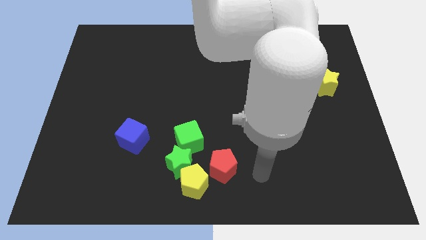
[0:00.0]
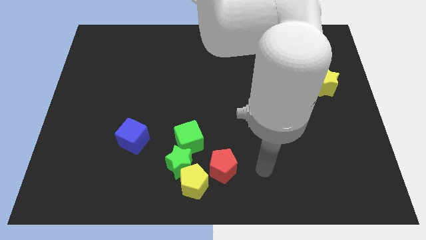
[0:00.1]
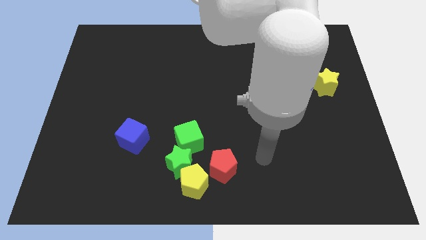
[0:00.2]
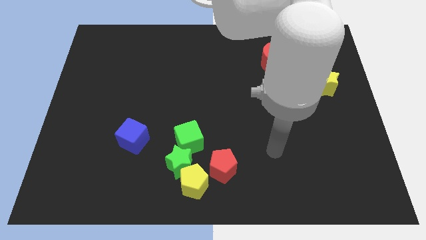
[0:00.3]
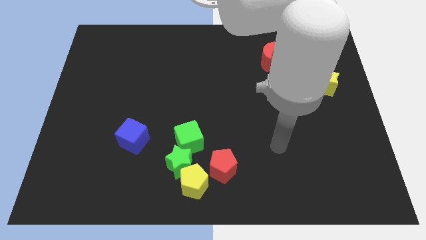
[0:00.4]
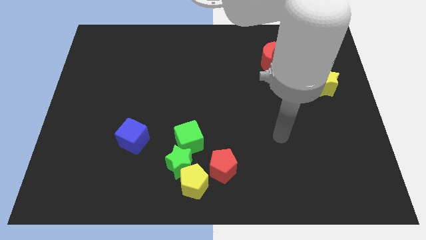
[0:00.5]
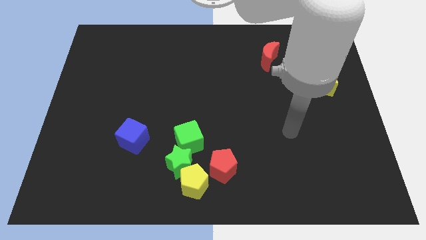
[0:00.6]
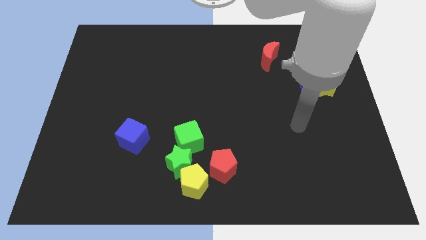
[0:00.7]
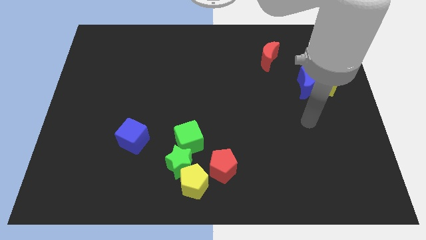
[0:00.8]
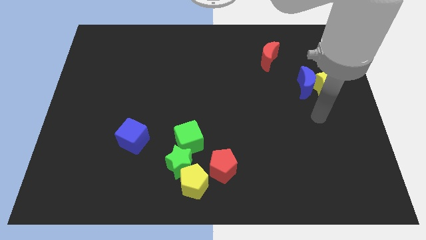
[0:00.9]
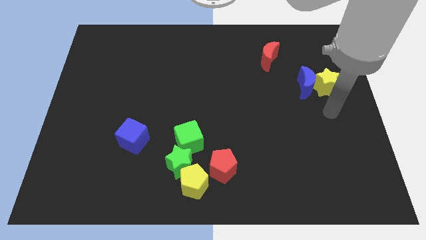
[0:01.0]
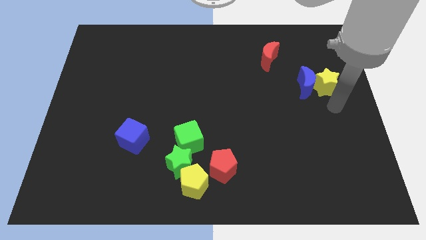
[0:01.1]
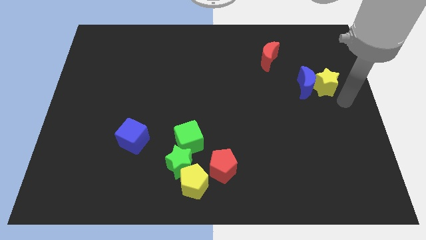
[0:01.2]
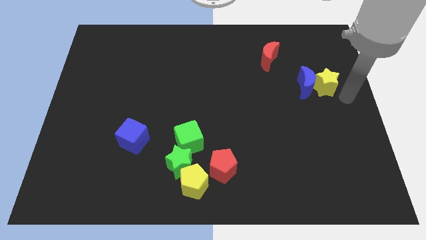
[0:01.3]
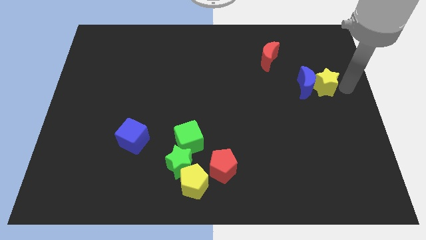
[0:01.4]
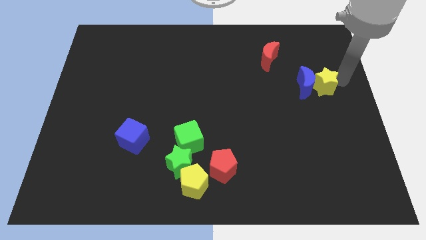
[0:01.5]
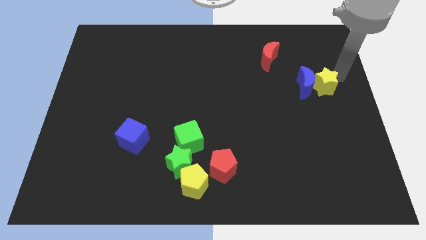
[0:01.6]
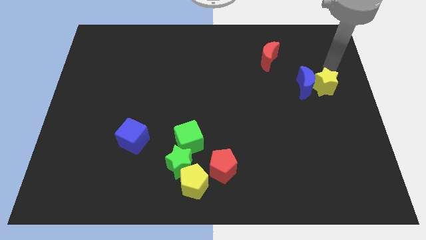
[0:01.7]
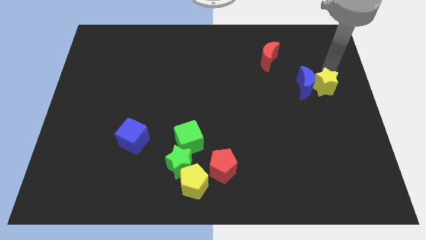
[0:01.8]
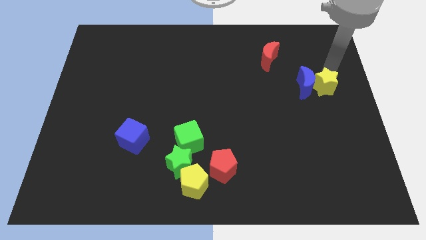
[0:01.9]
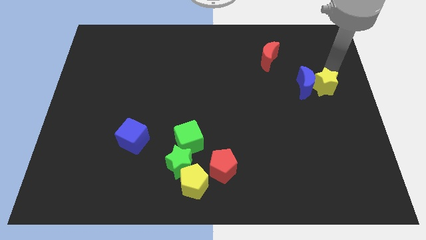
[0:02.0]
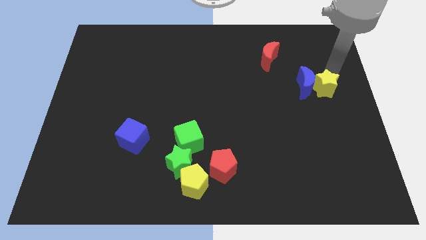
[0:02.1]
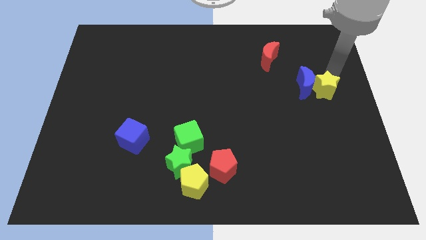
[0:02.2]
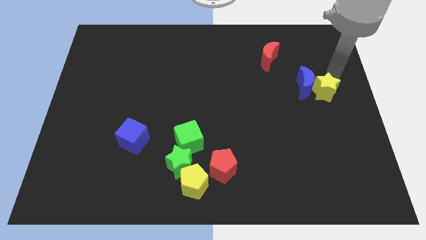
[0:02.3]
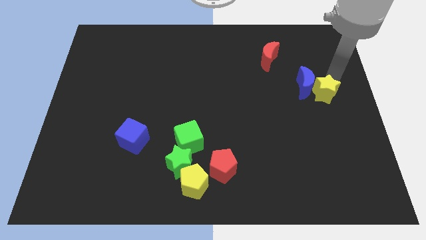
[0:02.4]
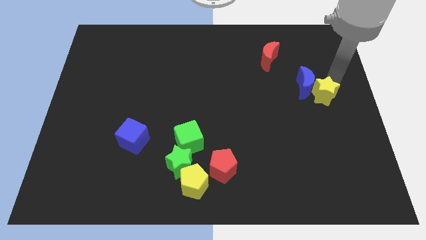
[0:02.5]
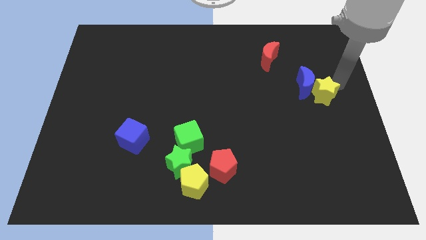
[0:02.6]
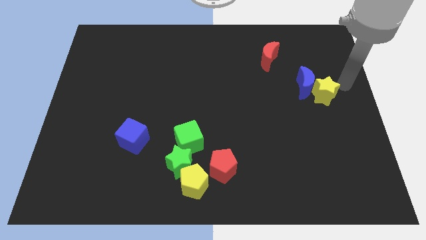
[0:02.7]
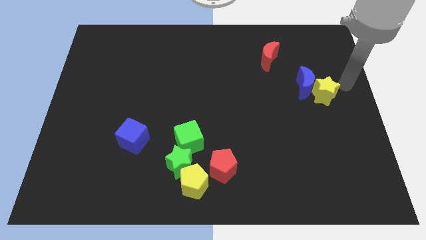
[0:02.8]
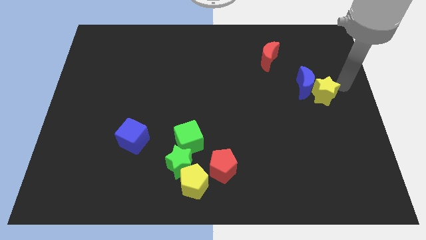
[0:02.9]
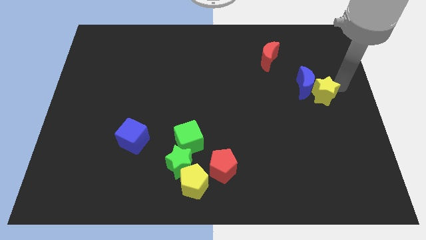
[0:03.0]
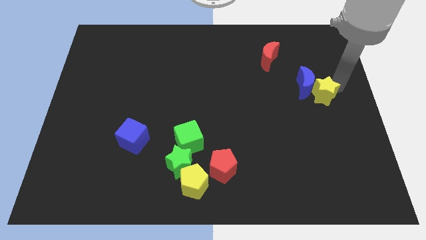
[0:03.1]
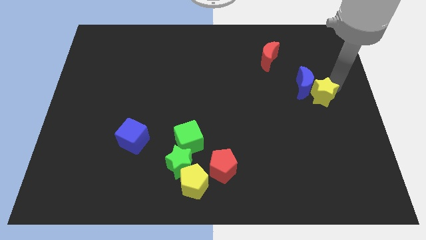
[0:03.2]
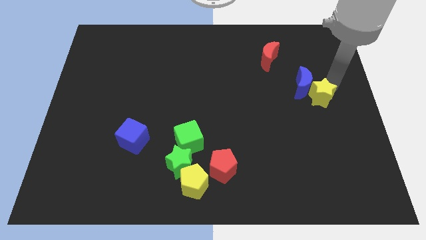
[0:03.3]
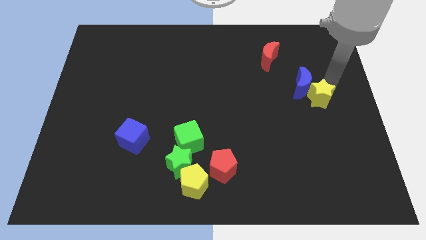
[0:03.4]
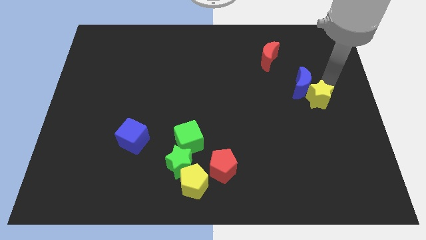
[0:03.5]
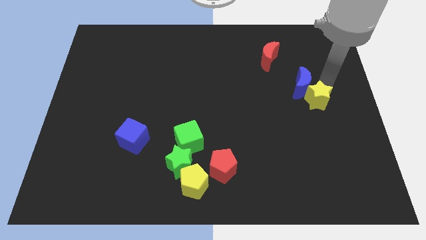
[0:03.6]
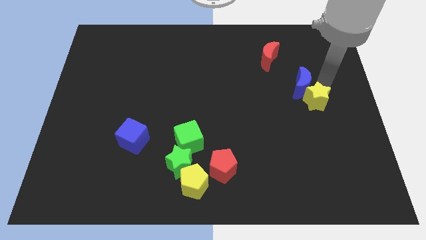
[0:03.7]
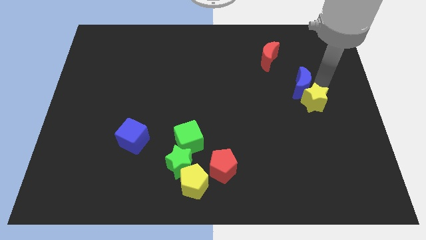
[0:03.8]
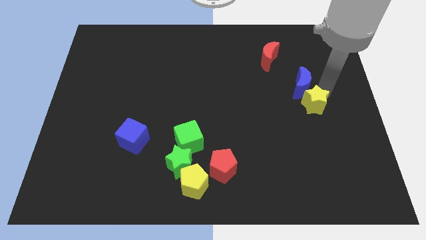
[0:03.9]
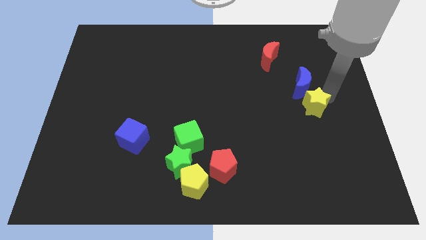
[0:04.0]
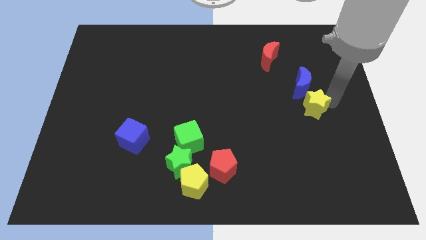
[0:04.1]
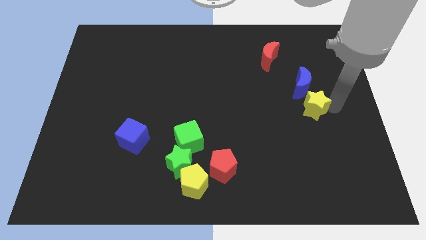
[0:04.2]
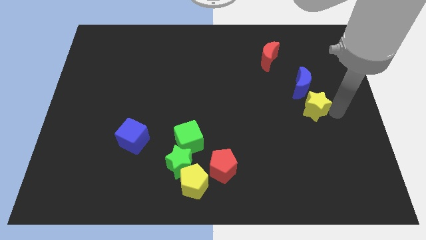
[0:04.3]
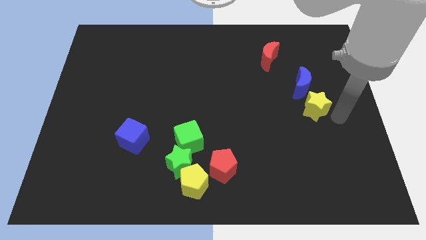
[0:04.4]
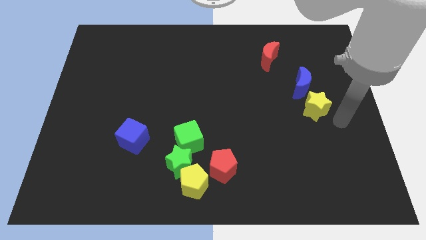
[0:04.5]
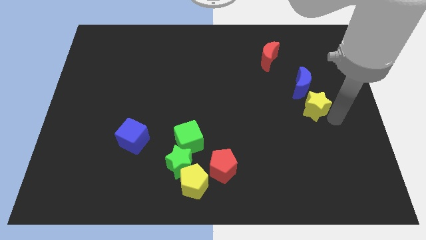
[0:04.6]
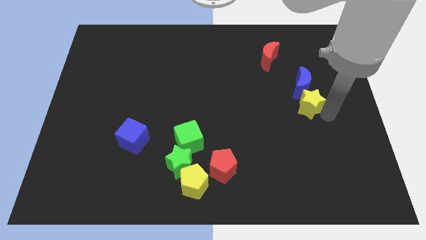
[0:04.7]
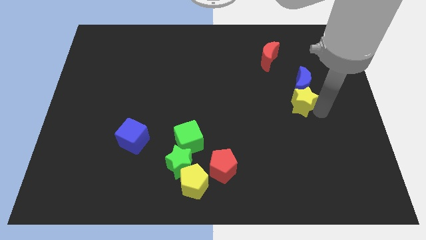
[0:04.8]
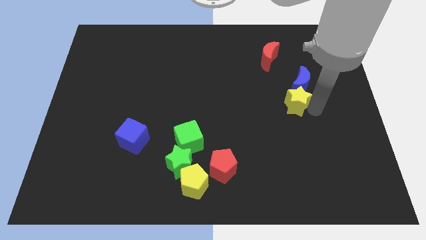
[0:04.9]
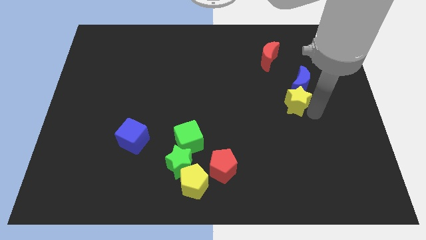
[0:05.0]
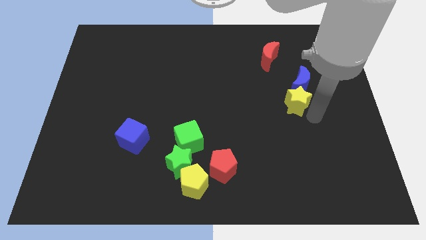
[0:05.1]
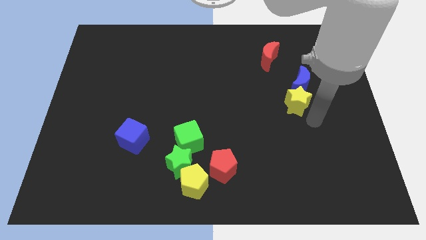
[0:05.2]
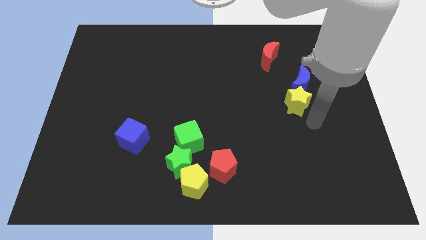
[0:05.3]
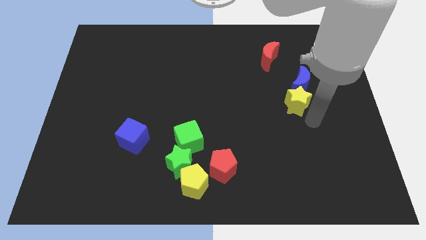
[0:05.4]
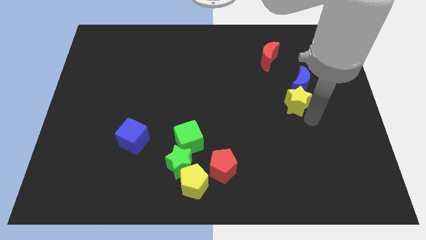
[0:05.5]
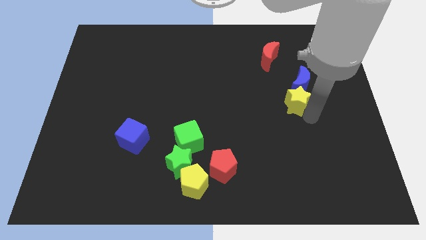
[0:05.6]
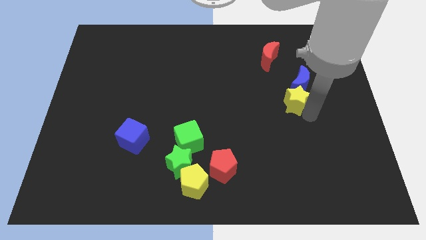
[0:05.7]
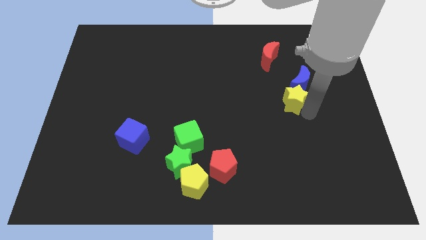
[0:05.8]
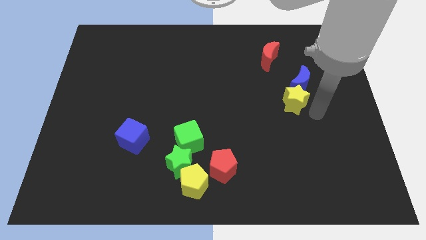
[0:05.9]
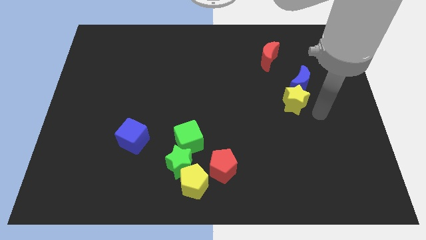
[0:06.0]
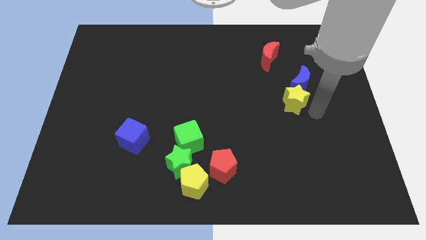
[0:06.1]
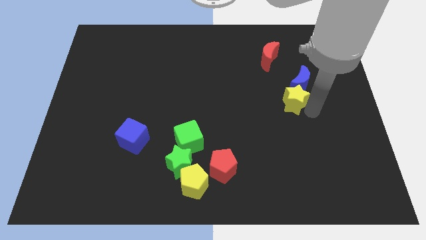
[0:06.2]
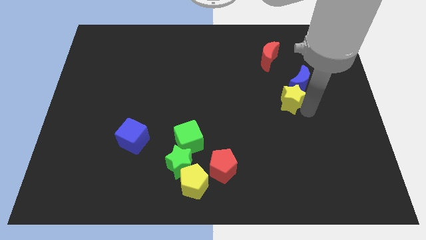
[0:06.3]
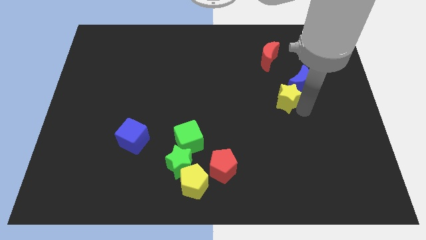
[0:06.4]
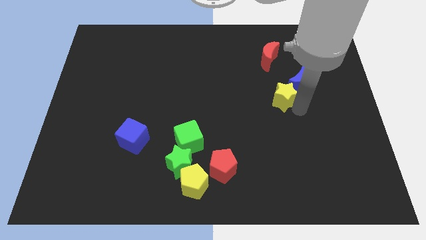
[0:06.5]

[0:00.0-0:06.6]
move the yellow star just left of the blue moon

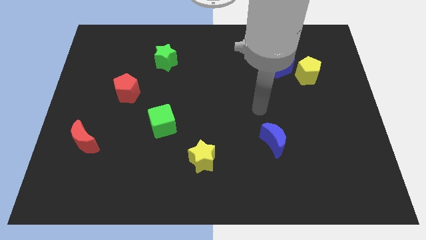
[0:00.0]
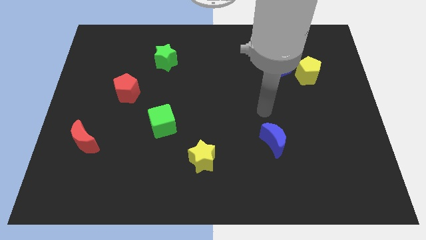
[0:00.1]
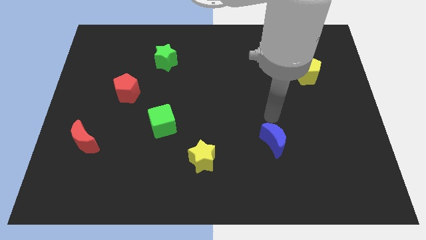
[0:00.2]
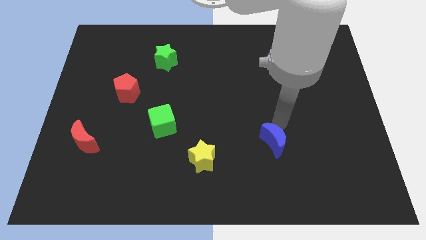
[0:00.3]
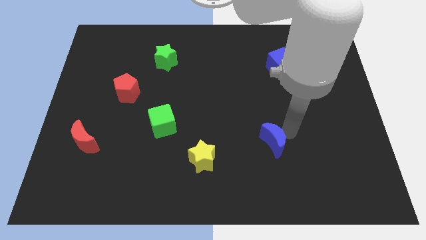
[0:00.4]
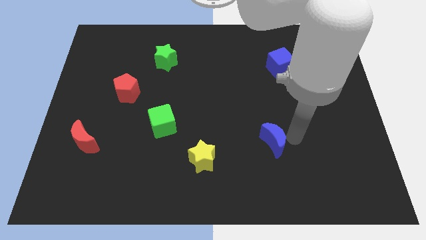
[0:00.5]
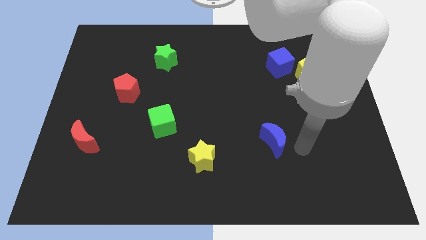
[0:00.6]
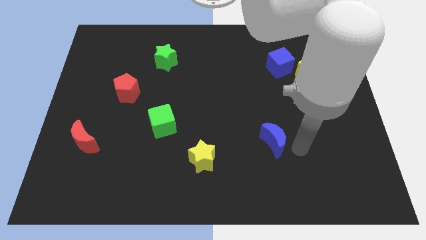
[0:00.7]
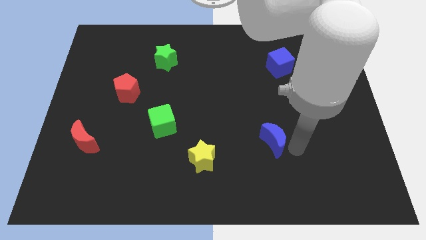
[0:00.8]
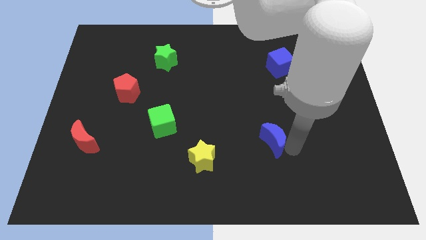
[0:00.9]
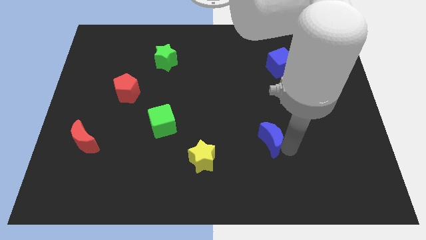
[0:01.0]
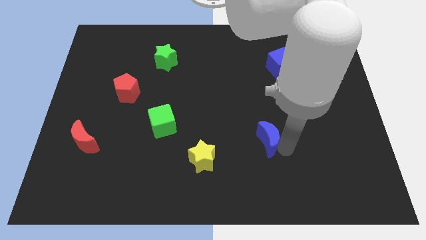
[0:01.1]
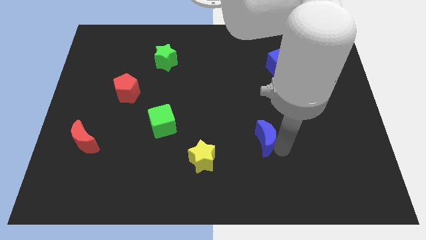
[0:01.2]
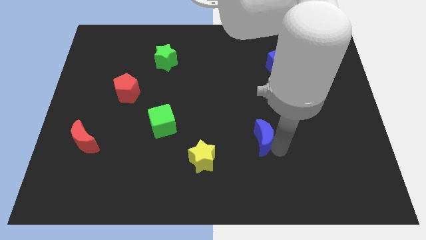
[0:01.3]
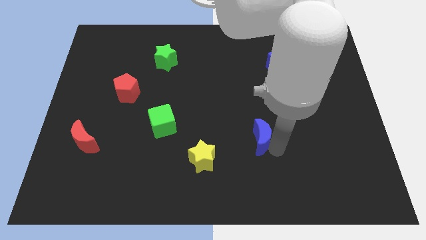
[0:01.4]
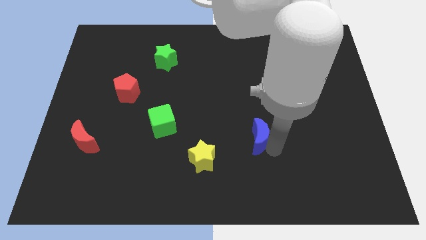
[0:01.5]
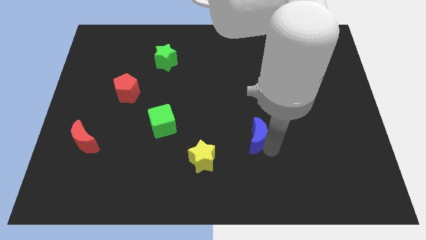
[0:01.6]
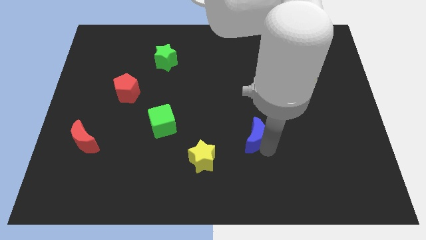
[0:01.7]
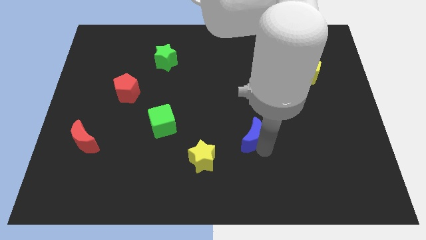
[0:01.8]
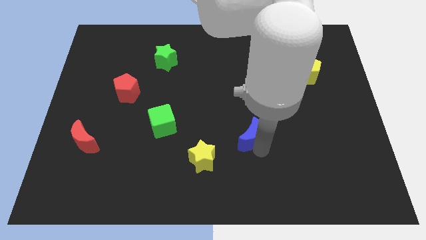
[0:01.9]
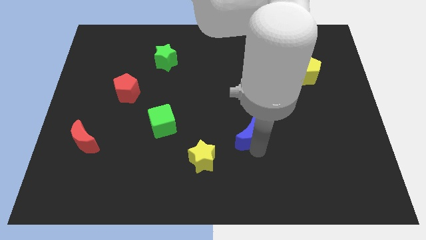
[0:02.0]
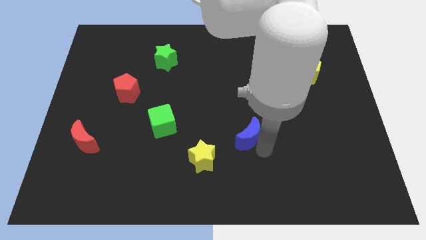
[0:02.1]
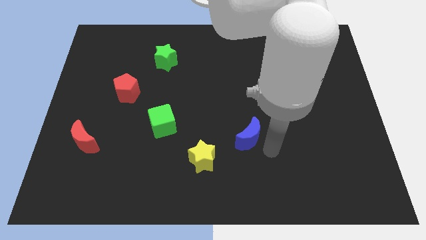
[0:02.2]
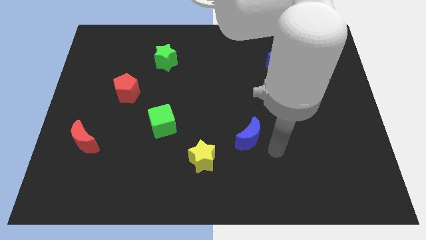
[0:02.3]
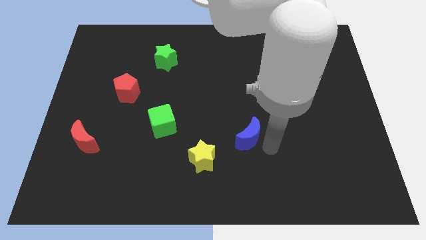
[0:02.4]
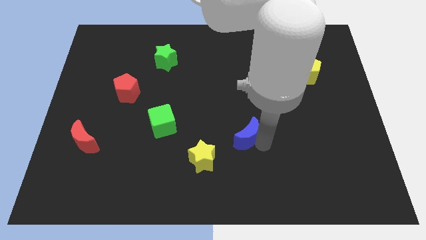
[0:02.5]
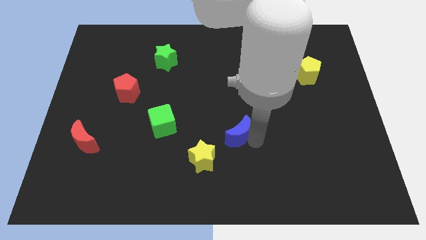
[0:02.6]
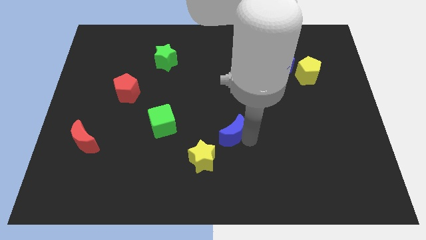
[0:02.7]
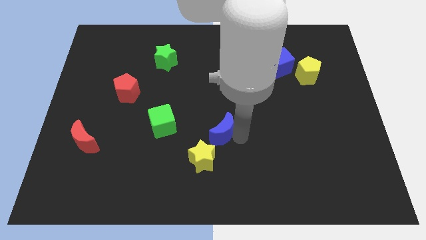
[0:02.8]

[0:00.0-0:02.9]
push the blue moon to the top of the yellow star
